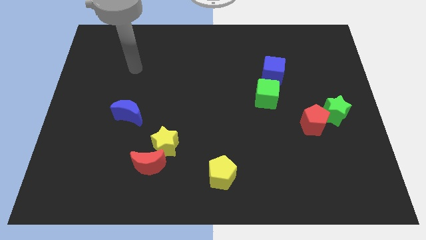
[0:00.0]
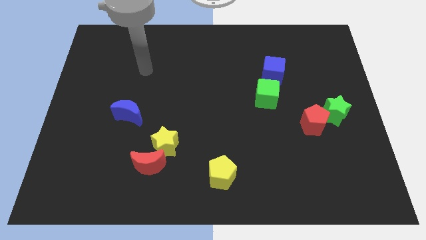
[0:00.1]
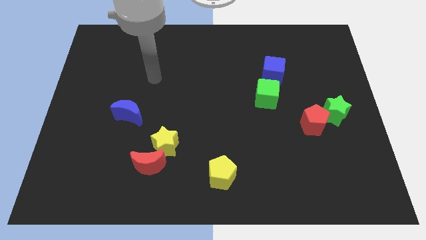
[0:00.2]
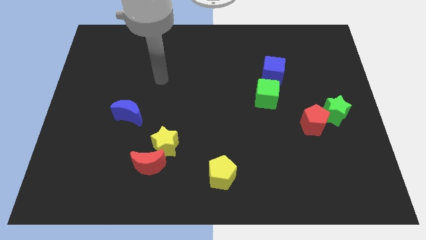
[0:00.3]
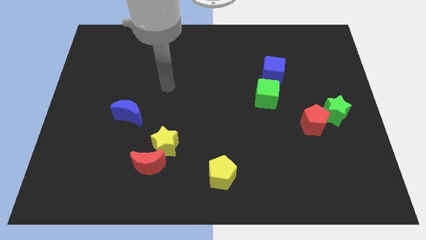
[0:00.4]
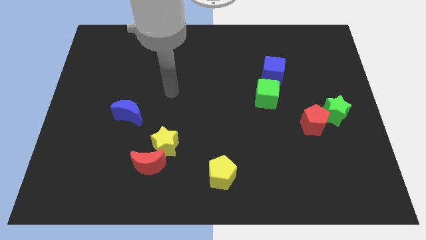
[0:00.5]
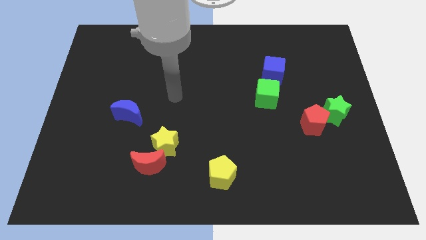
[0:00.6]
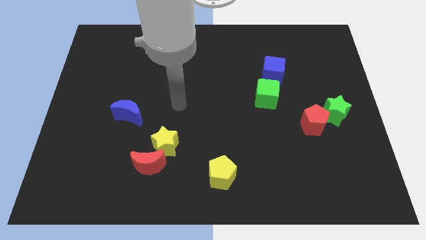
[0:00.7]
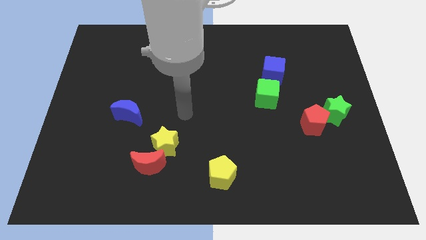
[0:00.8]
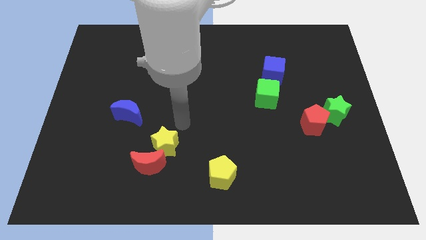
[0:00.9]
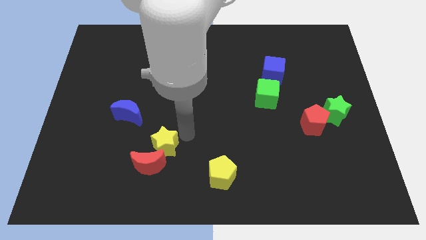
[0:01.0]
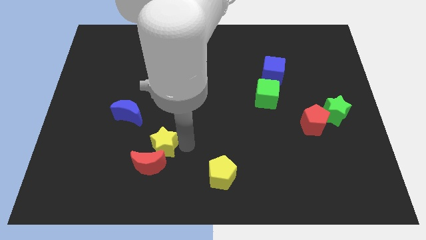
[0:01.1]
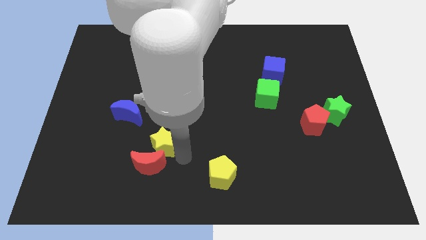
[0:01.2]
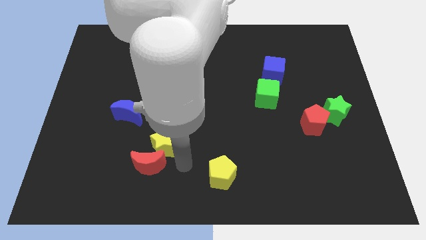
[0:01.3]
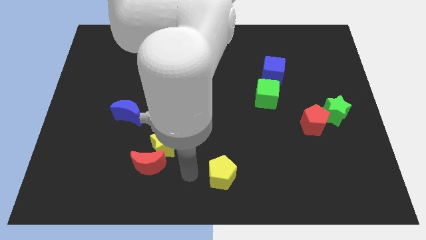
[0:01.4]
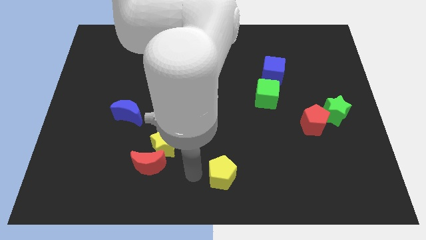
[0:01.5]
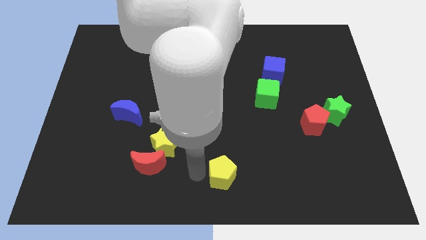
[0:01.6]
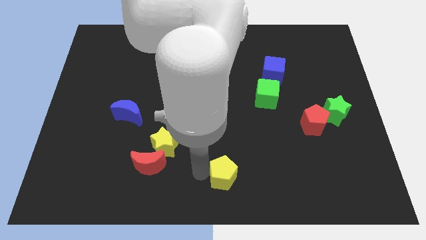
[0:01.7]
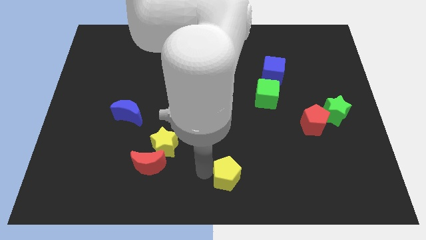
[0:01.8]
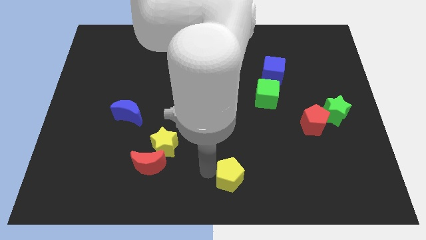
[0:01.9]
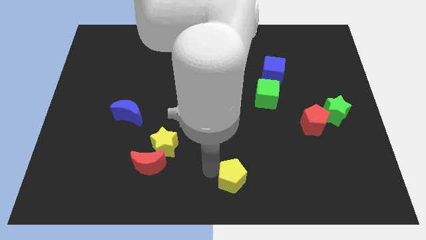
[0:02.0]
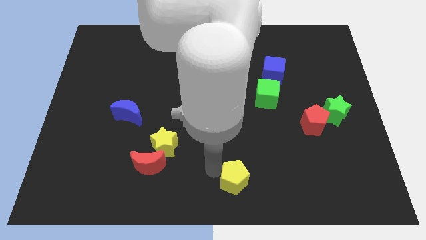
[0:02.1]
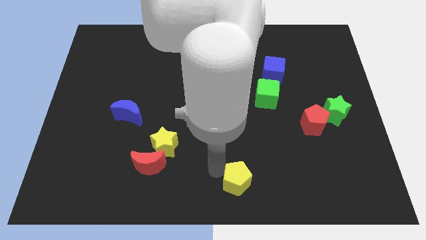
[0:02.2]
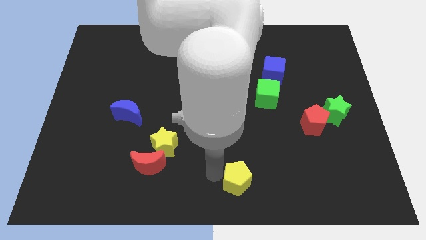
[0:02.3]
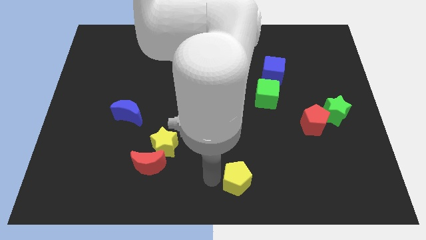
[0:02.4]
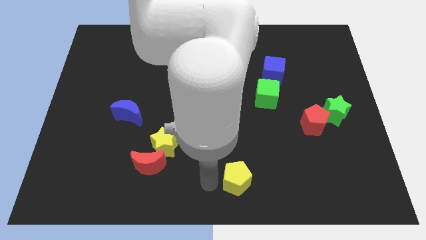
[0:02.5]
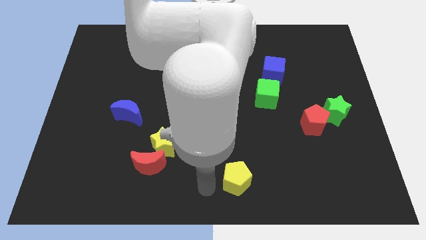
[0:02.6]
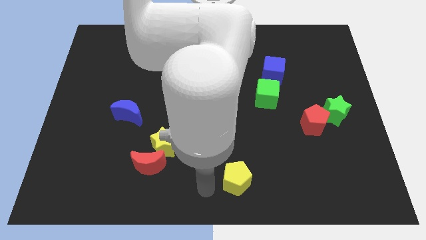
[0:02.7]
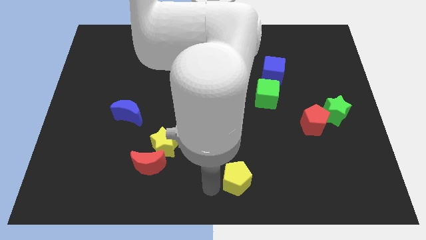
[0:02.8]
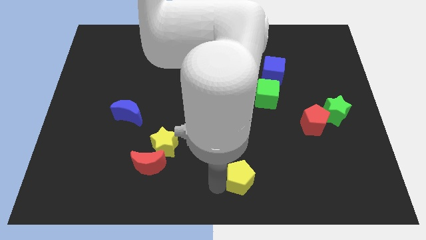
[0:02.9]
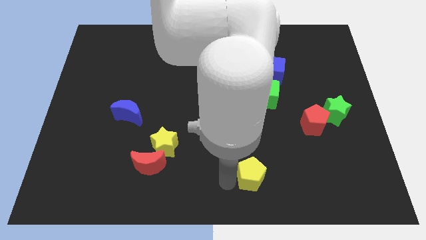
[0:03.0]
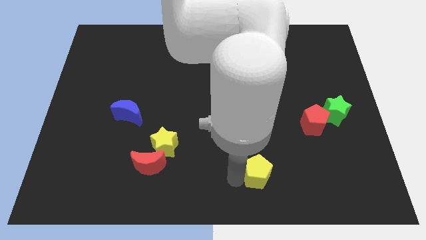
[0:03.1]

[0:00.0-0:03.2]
slightly slide the yellow pentagon to the right

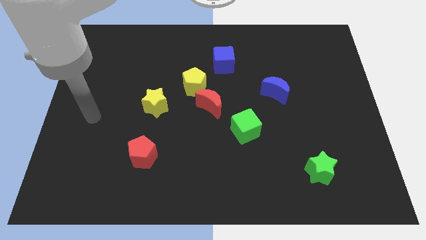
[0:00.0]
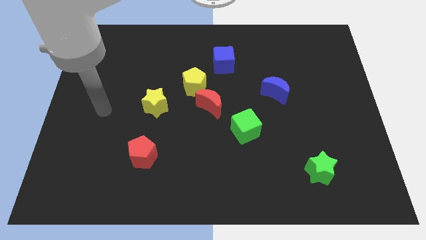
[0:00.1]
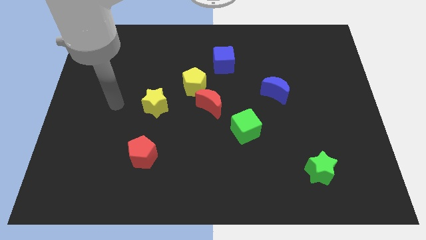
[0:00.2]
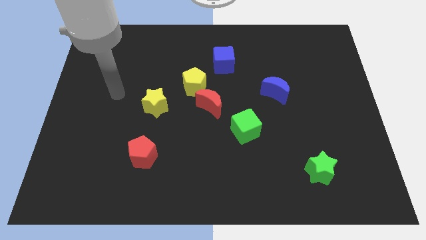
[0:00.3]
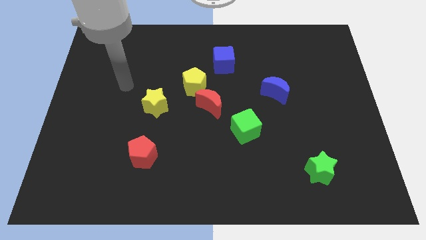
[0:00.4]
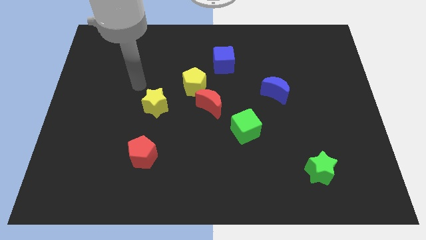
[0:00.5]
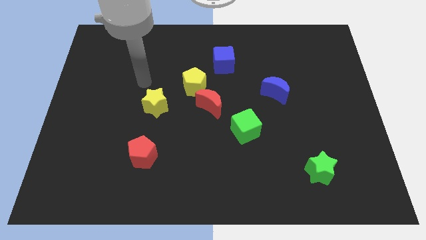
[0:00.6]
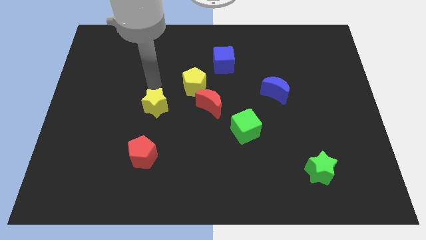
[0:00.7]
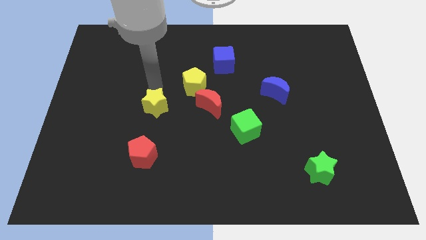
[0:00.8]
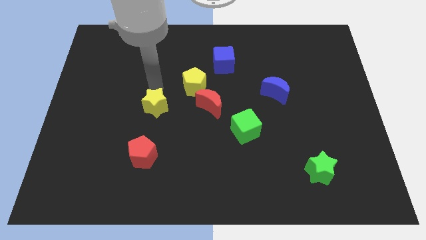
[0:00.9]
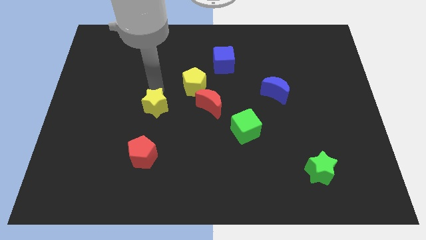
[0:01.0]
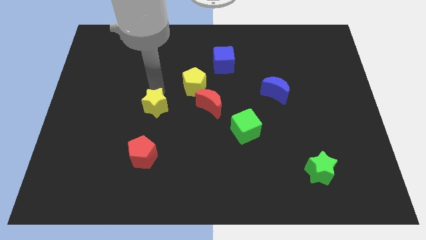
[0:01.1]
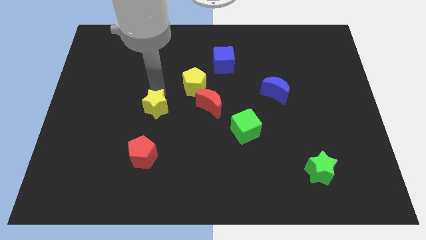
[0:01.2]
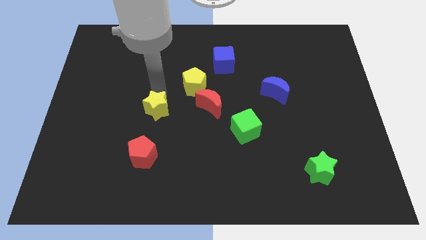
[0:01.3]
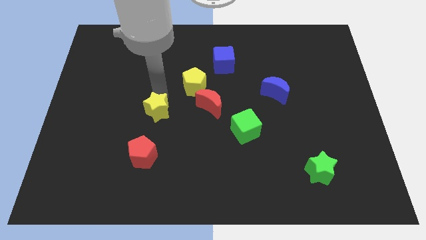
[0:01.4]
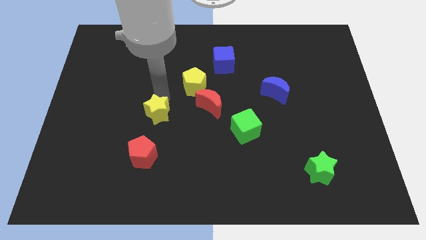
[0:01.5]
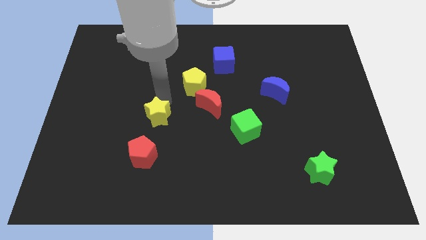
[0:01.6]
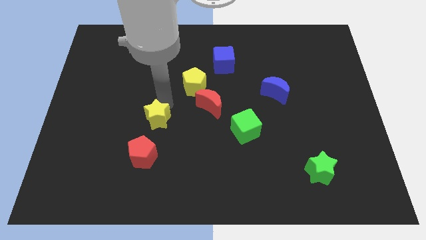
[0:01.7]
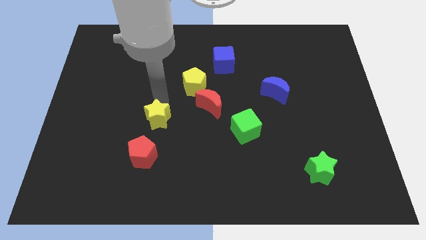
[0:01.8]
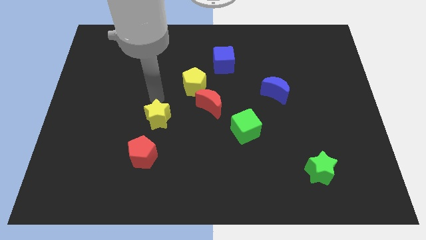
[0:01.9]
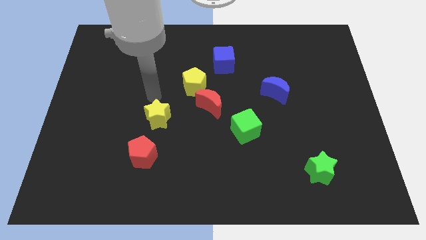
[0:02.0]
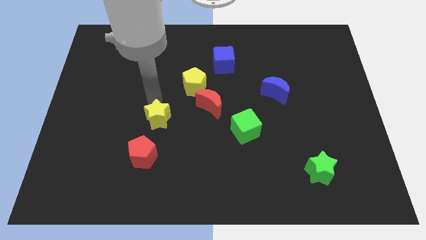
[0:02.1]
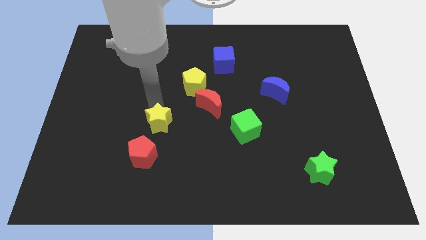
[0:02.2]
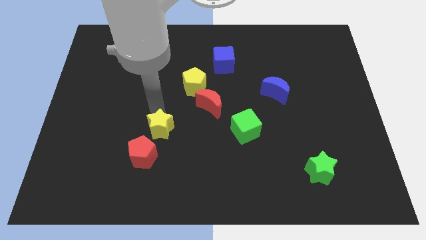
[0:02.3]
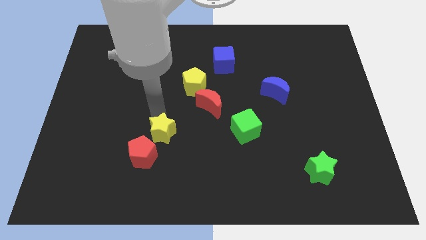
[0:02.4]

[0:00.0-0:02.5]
slightly move the yellow star down

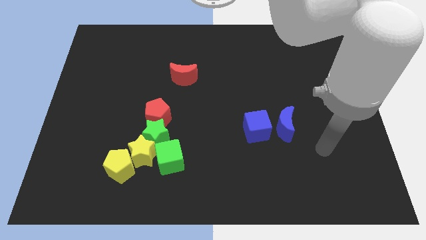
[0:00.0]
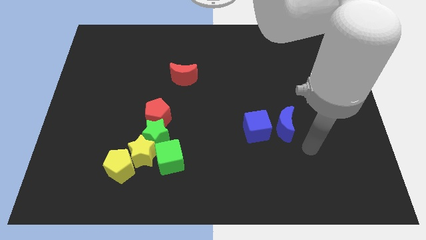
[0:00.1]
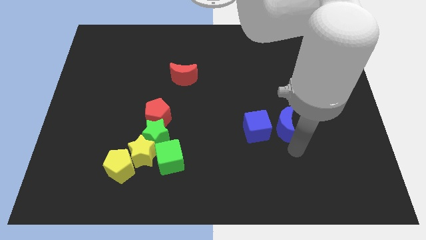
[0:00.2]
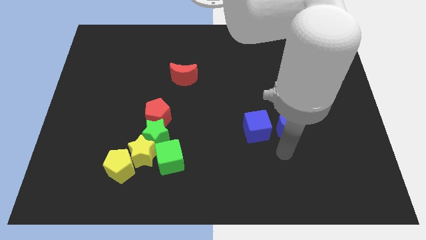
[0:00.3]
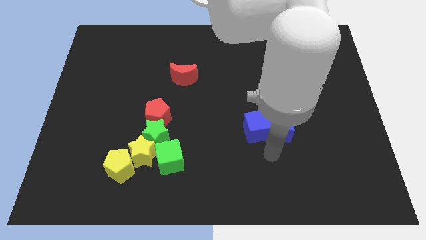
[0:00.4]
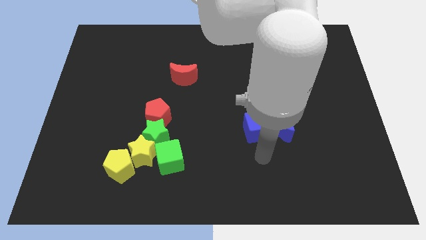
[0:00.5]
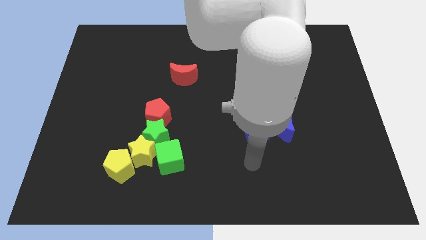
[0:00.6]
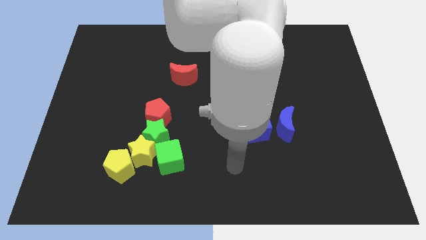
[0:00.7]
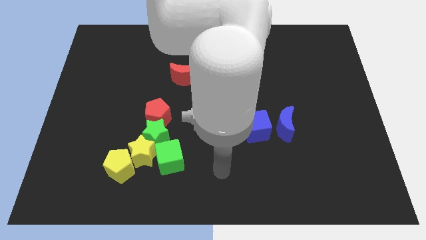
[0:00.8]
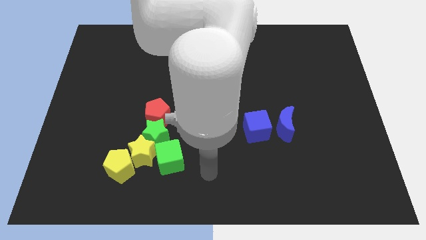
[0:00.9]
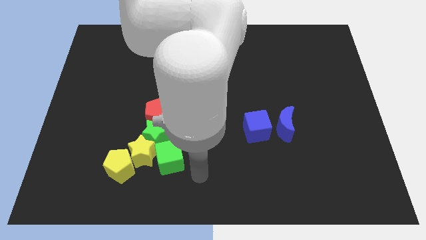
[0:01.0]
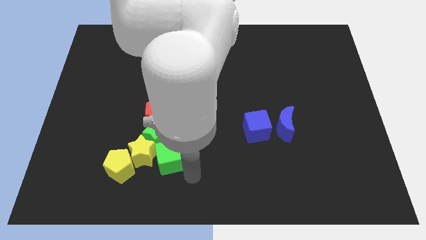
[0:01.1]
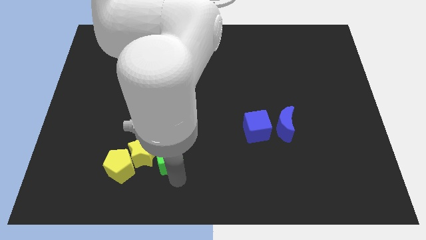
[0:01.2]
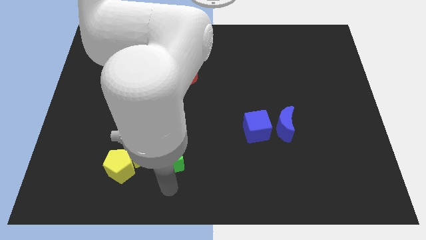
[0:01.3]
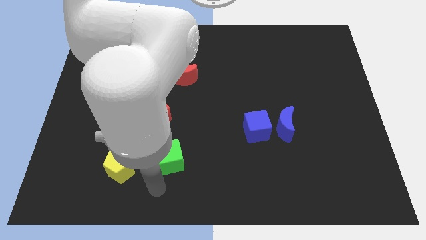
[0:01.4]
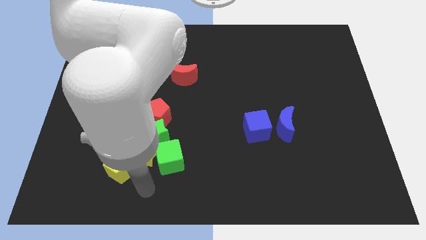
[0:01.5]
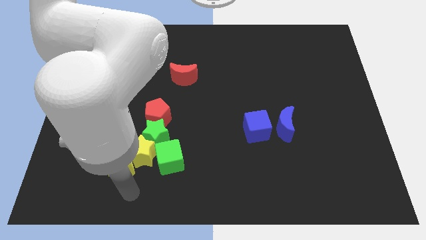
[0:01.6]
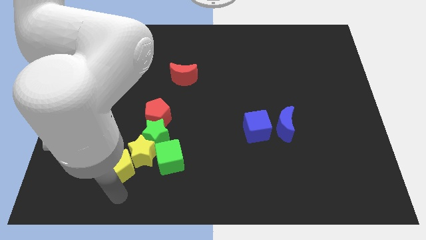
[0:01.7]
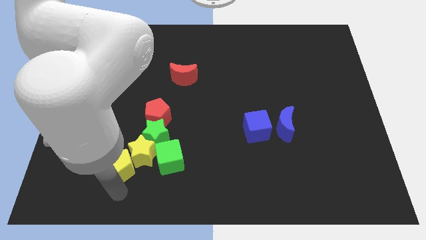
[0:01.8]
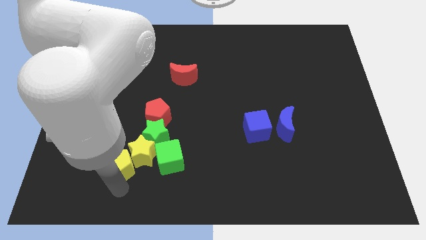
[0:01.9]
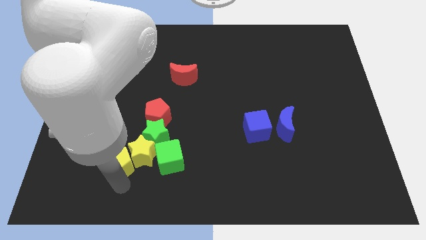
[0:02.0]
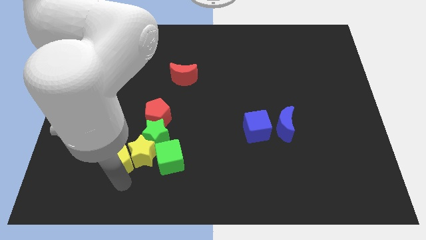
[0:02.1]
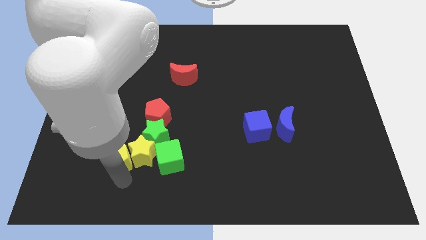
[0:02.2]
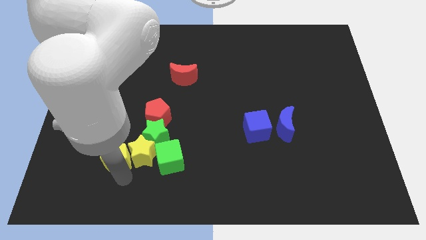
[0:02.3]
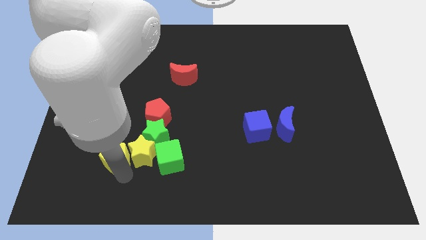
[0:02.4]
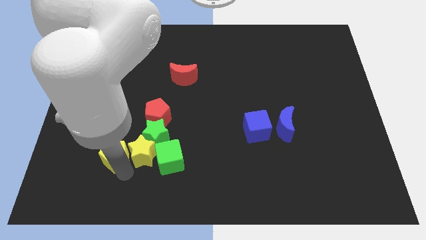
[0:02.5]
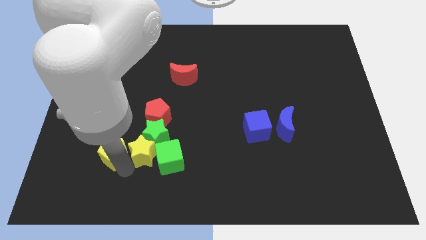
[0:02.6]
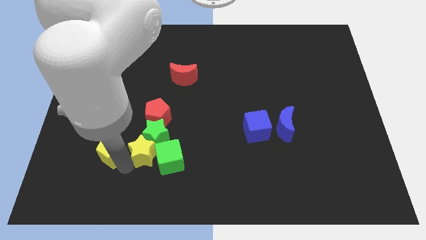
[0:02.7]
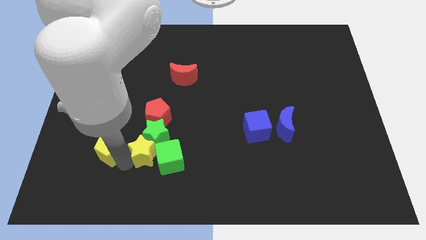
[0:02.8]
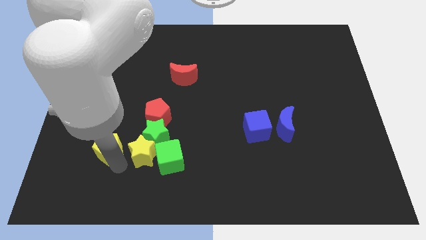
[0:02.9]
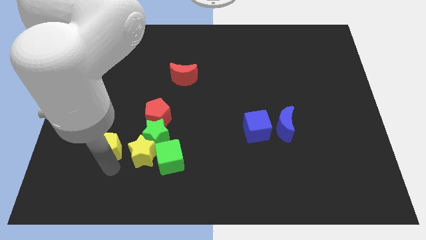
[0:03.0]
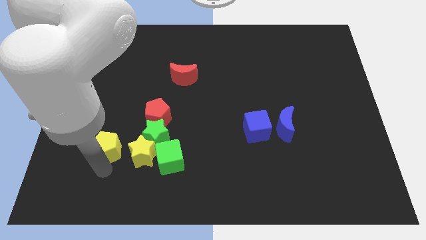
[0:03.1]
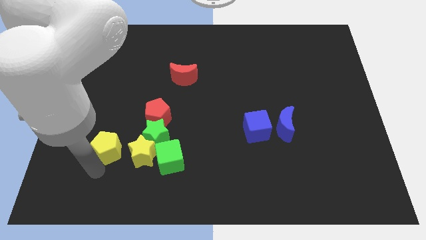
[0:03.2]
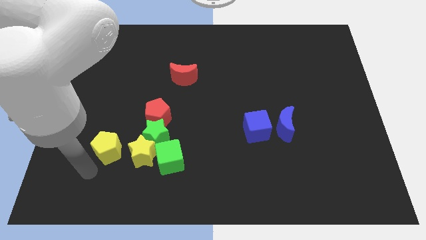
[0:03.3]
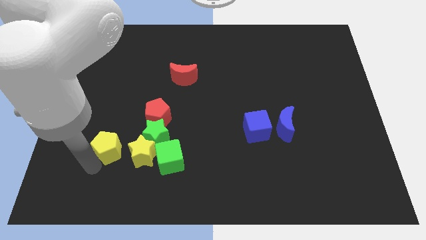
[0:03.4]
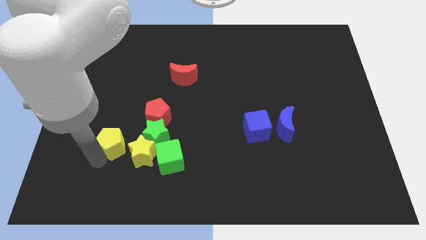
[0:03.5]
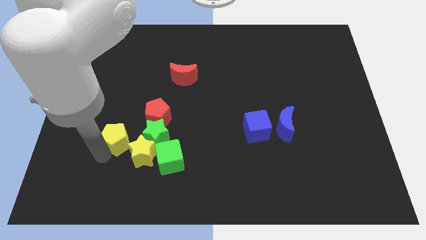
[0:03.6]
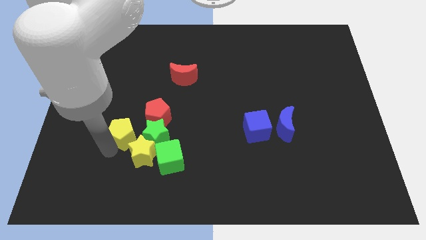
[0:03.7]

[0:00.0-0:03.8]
slightly move the yellow pentagon upwards
